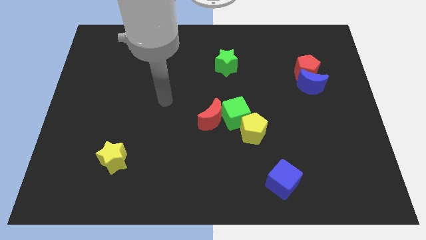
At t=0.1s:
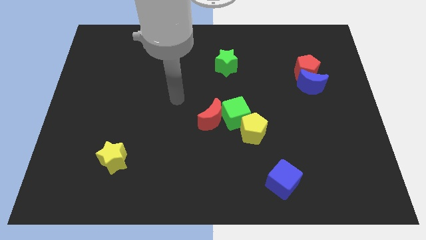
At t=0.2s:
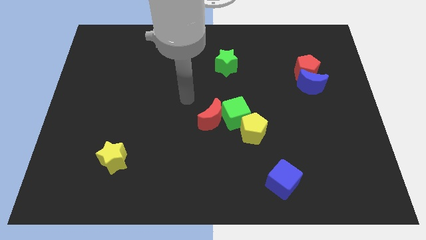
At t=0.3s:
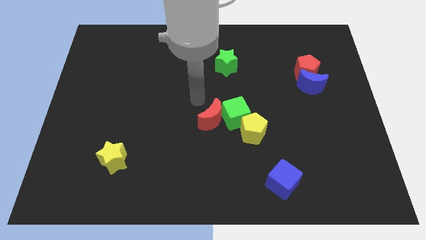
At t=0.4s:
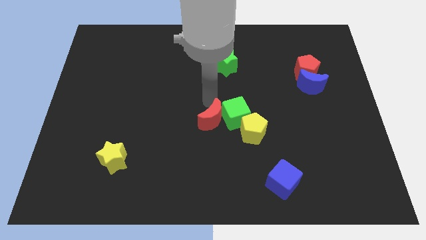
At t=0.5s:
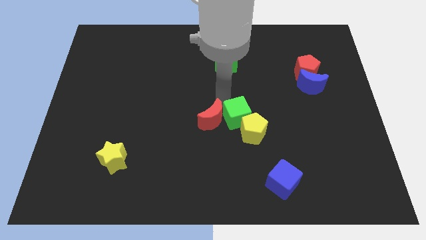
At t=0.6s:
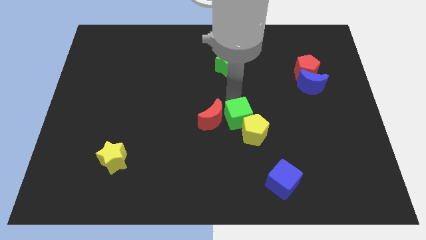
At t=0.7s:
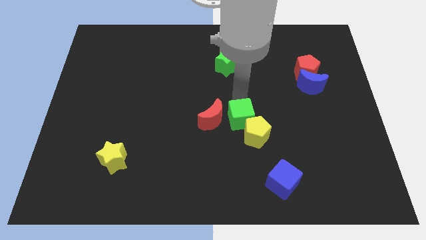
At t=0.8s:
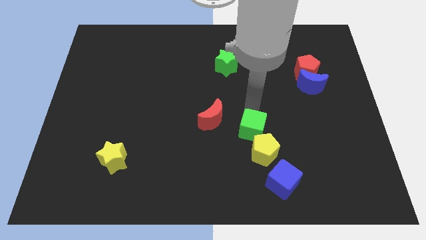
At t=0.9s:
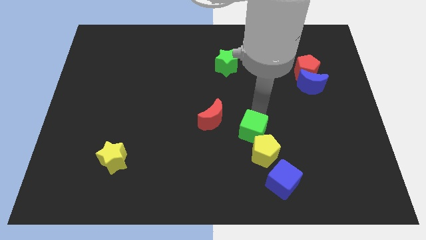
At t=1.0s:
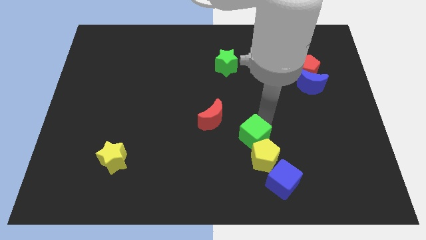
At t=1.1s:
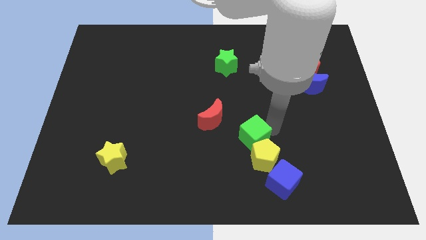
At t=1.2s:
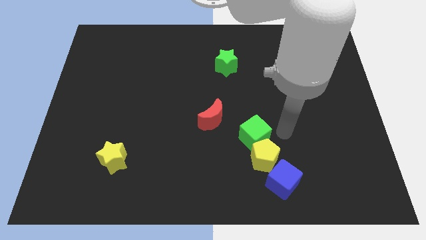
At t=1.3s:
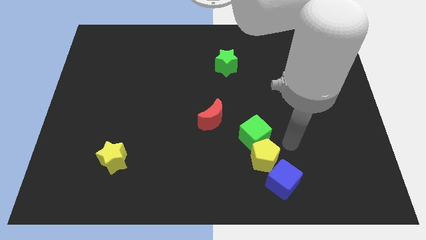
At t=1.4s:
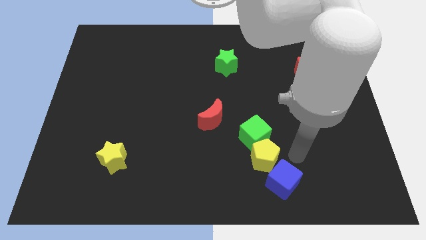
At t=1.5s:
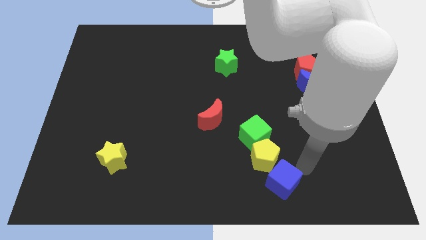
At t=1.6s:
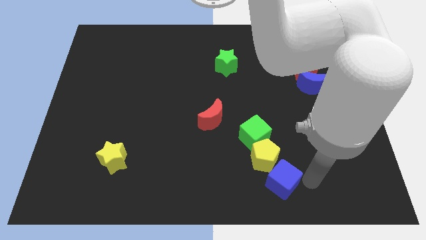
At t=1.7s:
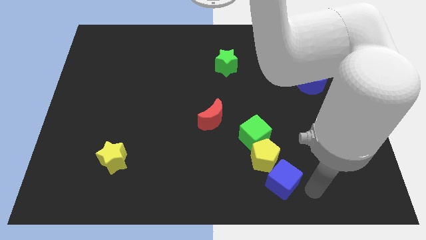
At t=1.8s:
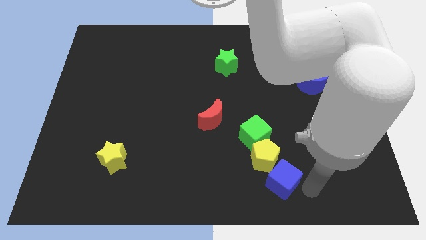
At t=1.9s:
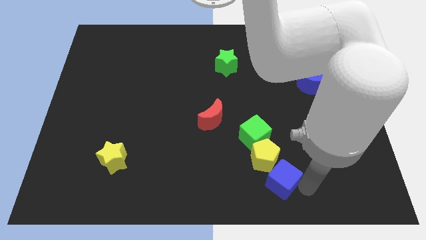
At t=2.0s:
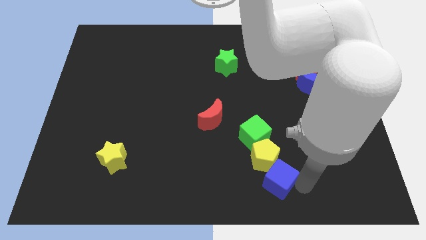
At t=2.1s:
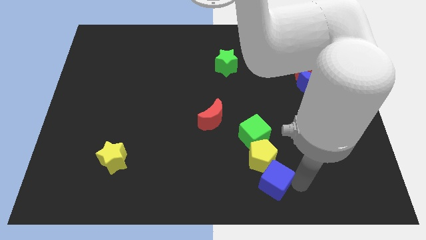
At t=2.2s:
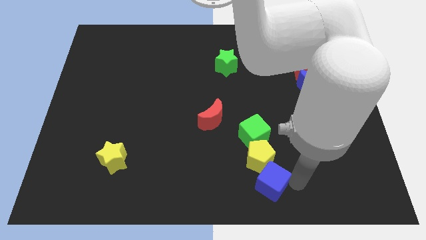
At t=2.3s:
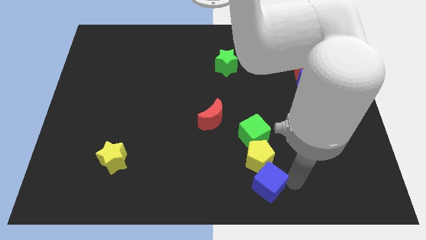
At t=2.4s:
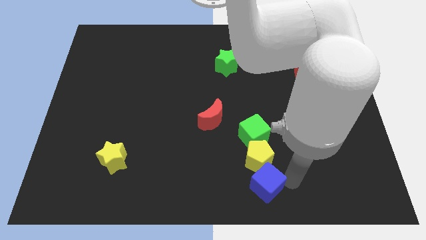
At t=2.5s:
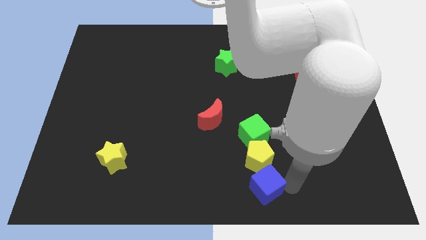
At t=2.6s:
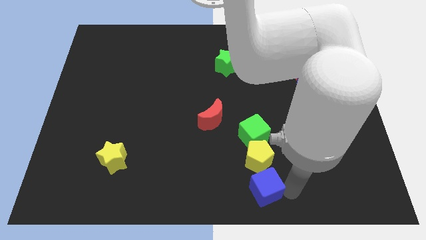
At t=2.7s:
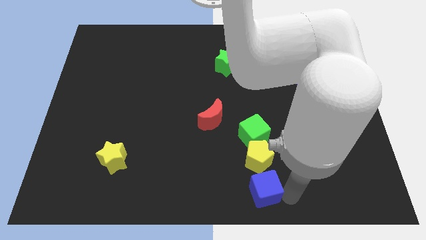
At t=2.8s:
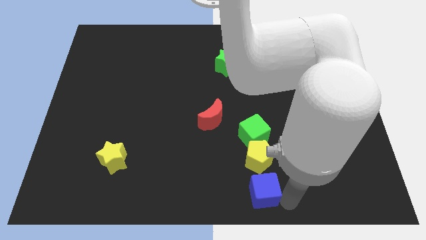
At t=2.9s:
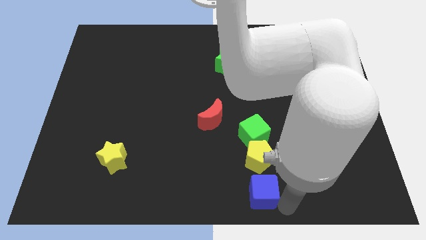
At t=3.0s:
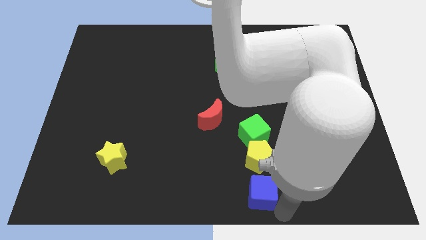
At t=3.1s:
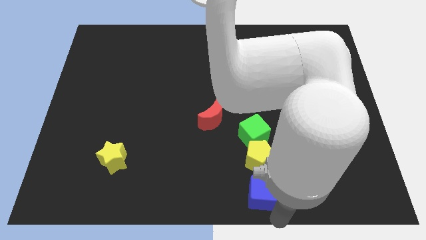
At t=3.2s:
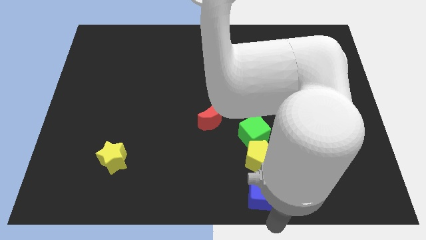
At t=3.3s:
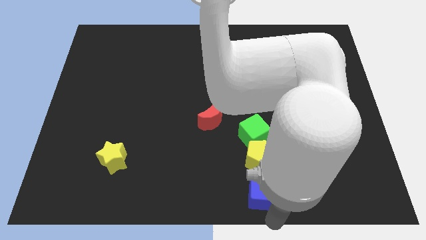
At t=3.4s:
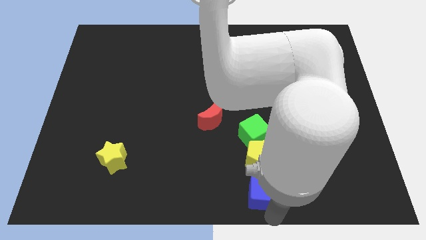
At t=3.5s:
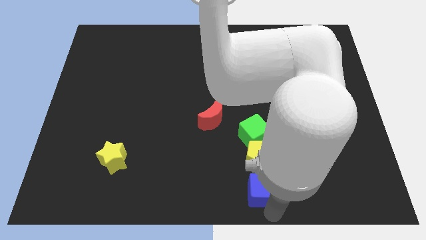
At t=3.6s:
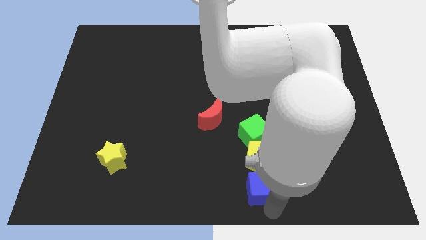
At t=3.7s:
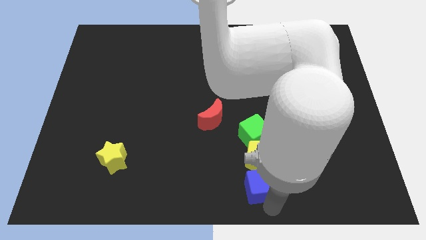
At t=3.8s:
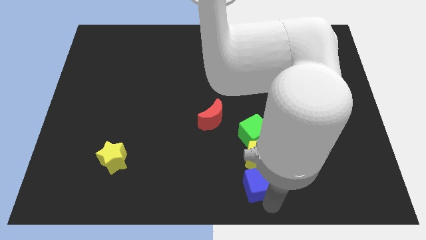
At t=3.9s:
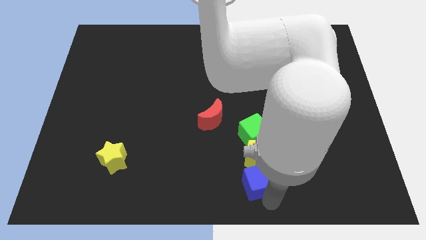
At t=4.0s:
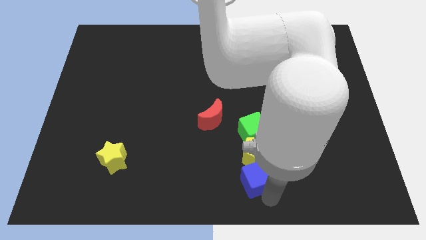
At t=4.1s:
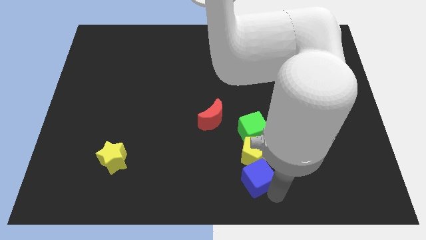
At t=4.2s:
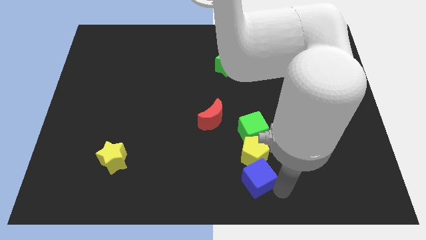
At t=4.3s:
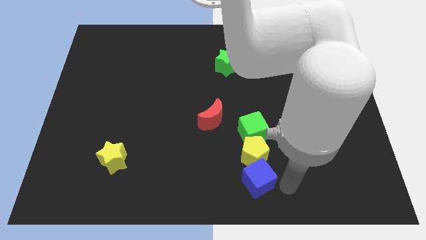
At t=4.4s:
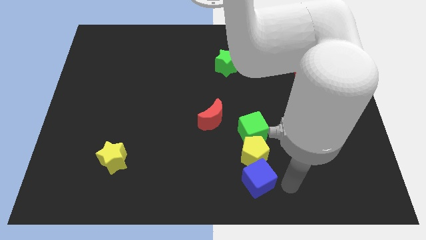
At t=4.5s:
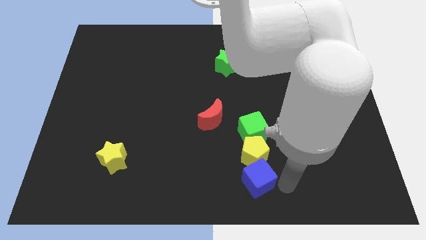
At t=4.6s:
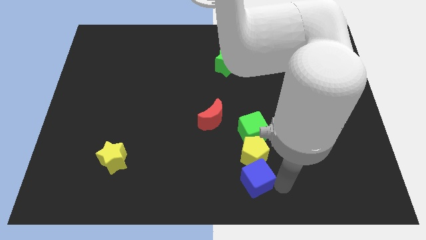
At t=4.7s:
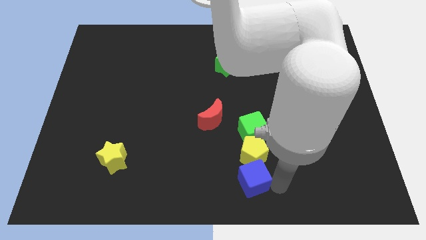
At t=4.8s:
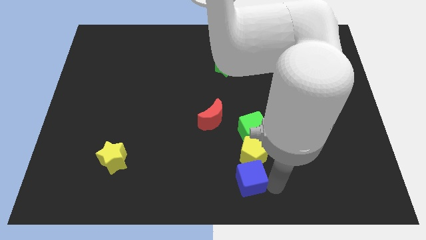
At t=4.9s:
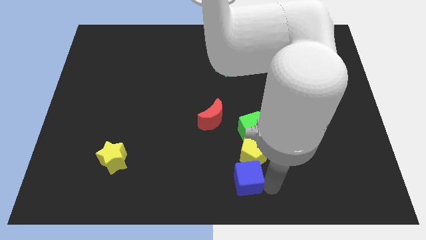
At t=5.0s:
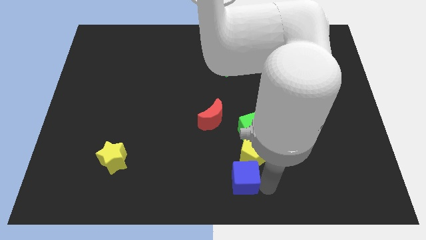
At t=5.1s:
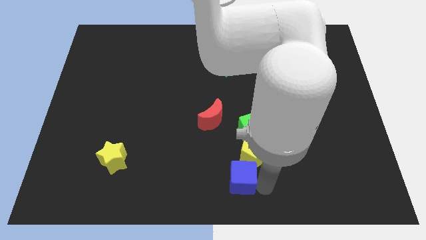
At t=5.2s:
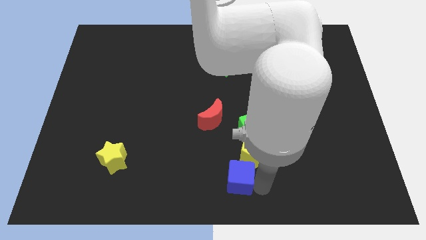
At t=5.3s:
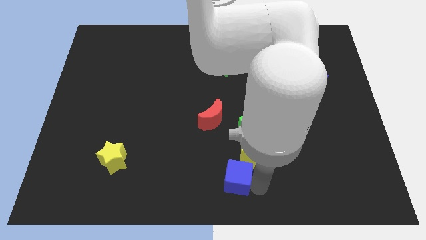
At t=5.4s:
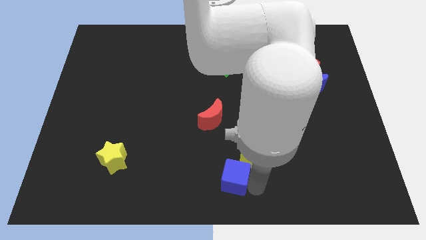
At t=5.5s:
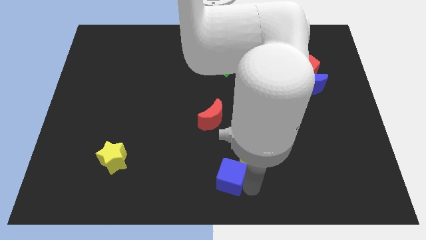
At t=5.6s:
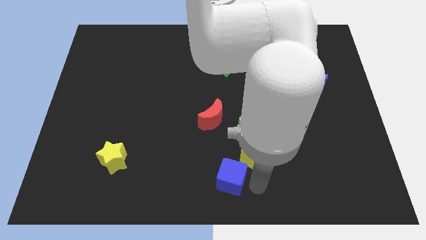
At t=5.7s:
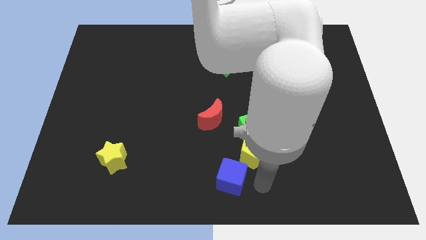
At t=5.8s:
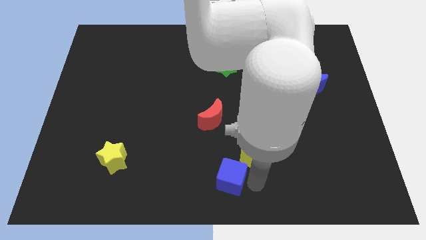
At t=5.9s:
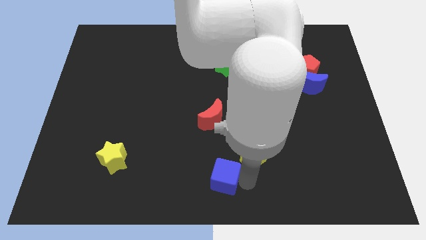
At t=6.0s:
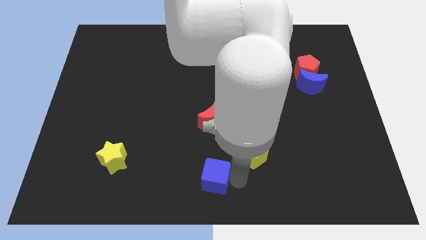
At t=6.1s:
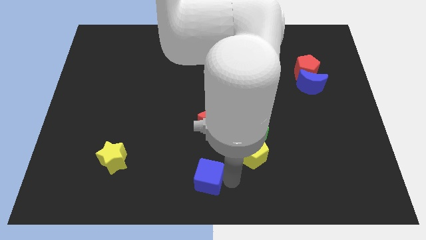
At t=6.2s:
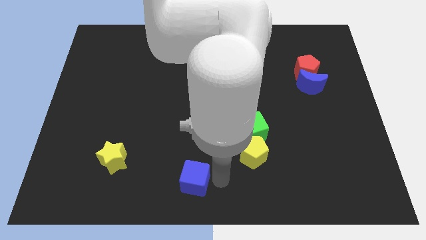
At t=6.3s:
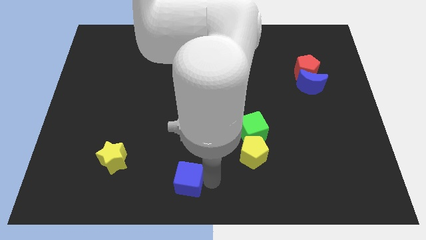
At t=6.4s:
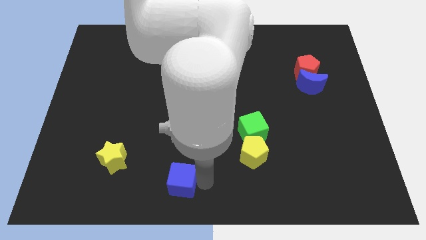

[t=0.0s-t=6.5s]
push the blue cube left

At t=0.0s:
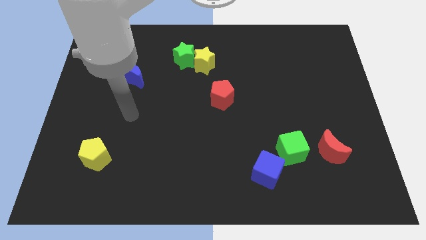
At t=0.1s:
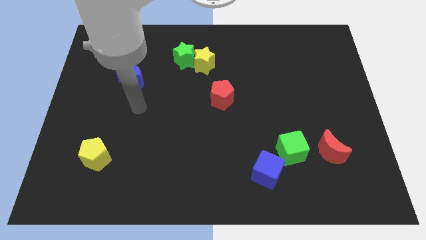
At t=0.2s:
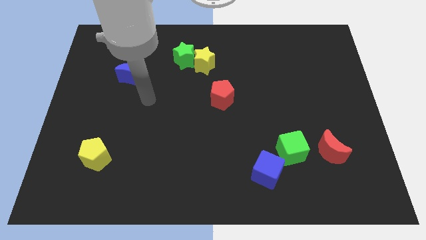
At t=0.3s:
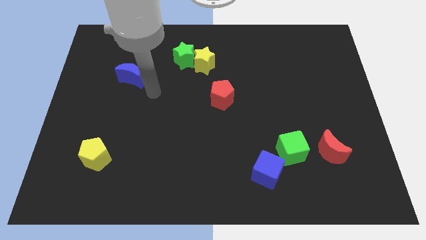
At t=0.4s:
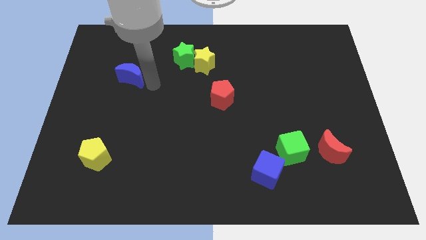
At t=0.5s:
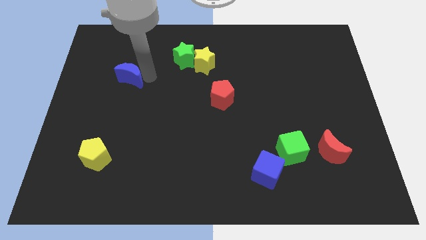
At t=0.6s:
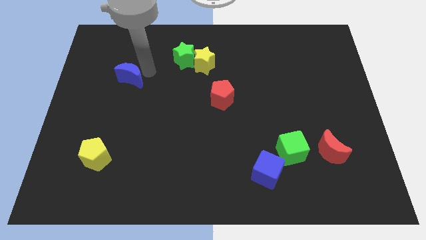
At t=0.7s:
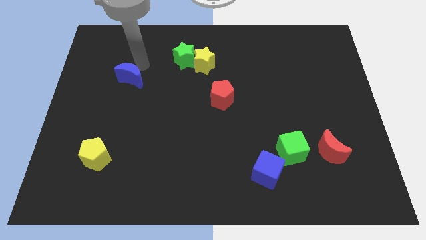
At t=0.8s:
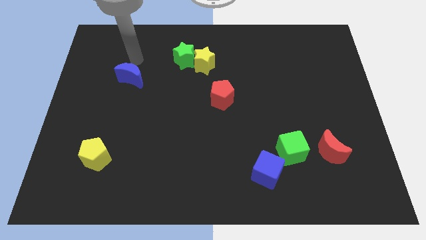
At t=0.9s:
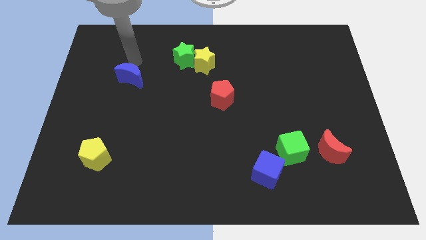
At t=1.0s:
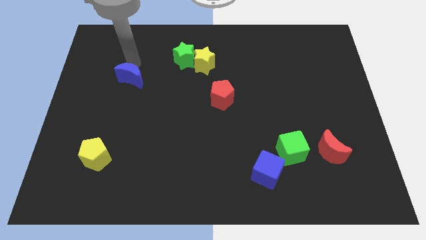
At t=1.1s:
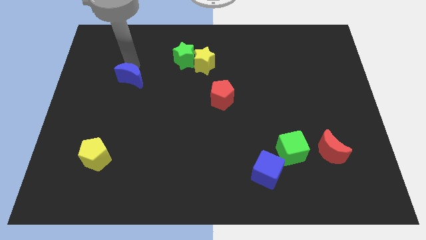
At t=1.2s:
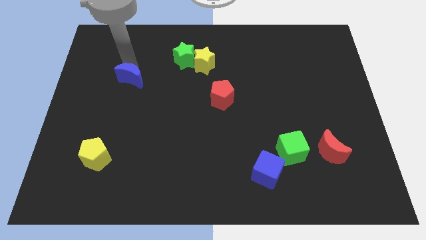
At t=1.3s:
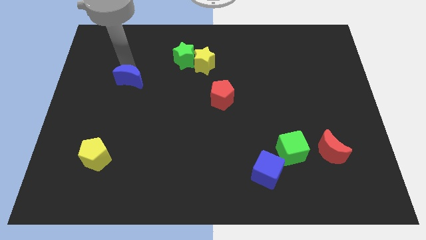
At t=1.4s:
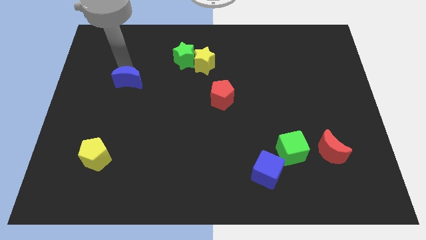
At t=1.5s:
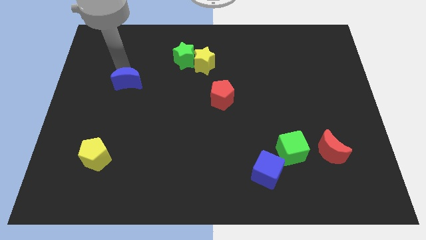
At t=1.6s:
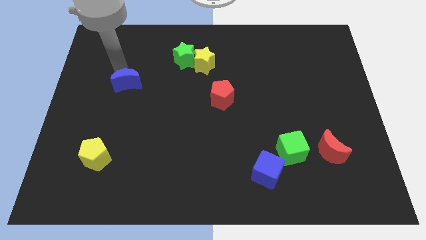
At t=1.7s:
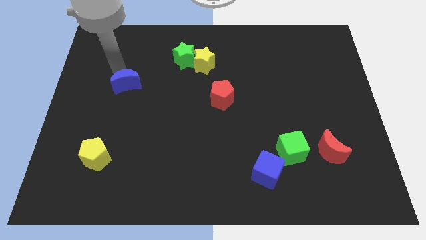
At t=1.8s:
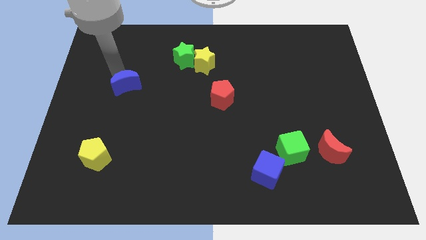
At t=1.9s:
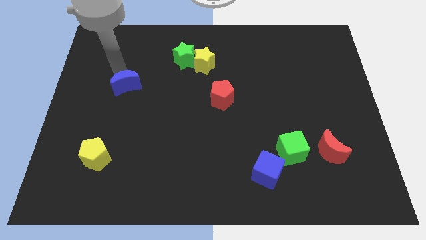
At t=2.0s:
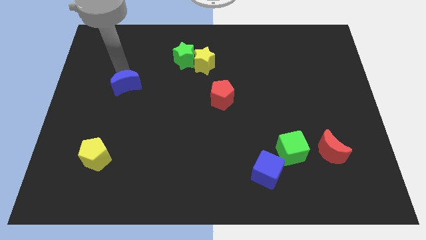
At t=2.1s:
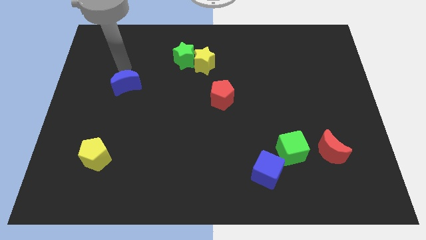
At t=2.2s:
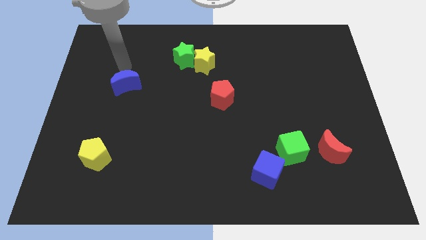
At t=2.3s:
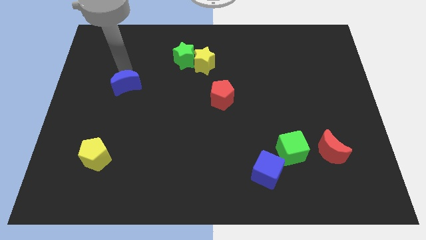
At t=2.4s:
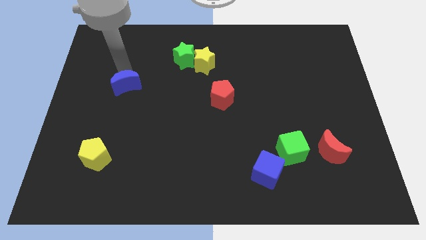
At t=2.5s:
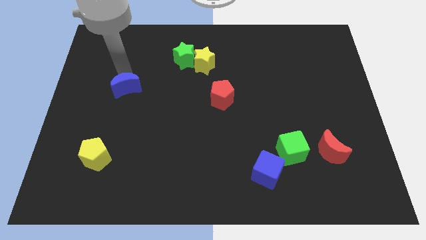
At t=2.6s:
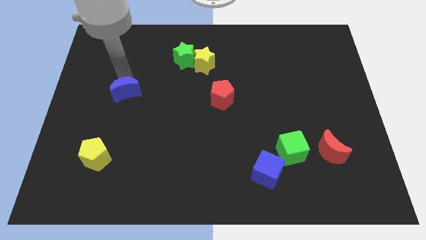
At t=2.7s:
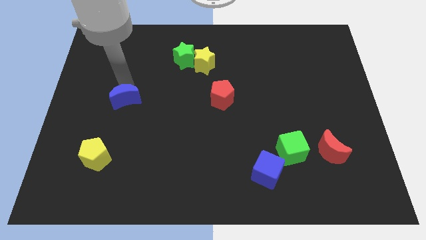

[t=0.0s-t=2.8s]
slide the blue moon a little bit downwards
